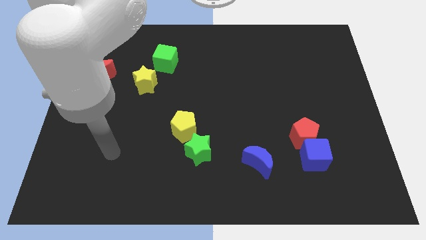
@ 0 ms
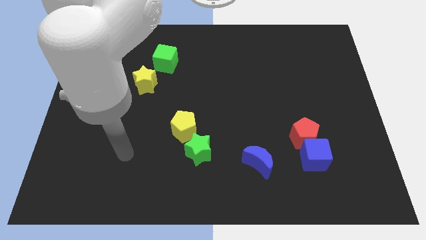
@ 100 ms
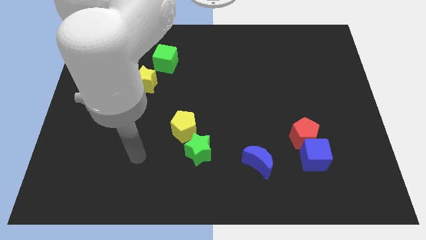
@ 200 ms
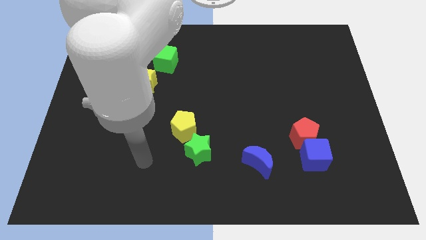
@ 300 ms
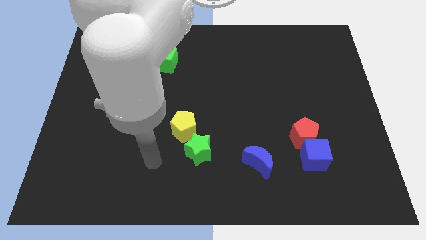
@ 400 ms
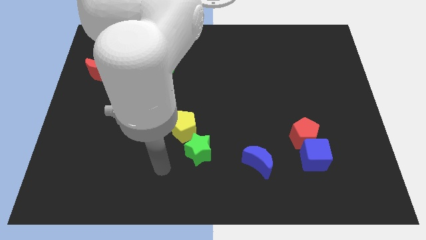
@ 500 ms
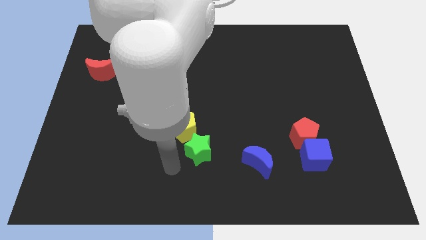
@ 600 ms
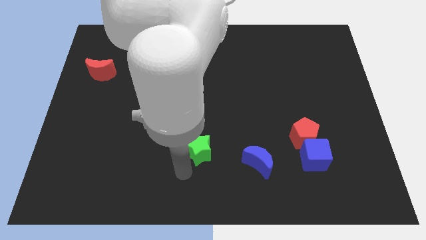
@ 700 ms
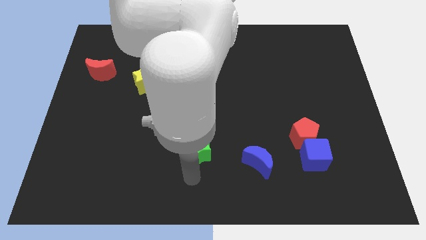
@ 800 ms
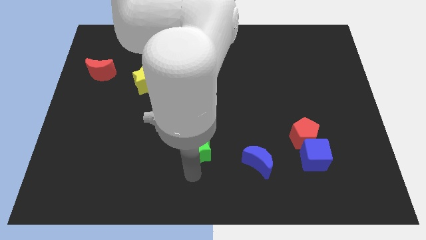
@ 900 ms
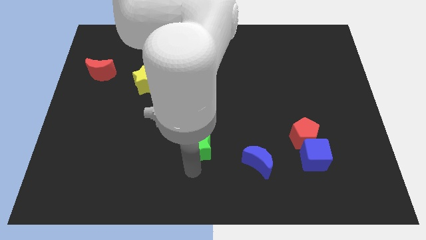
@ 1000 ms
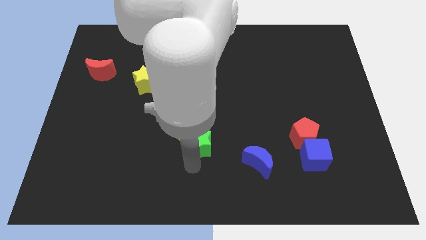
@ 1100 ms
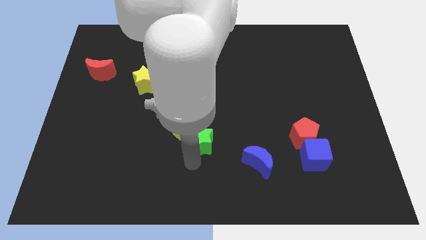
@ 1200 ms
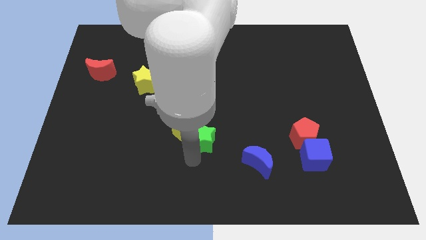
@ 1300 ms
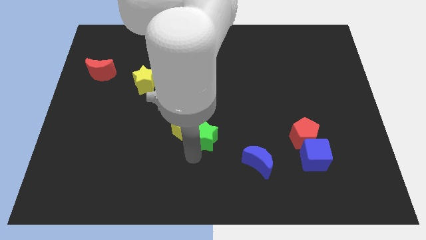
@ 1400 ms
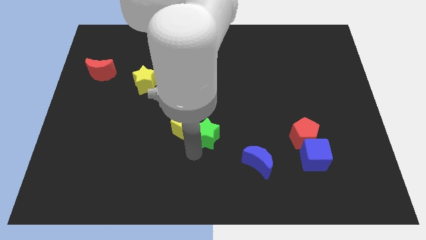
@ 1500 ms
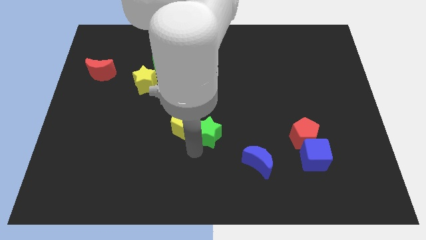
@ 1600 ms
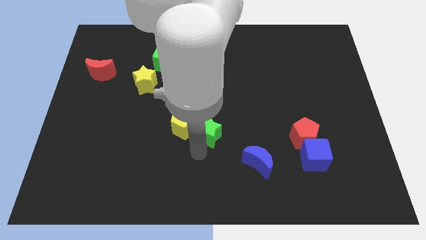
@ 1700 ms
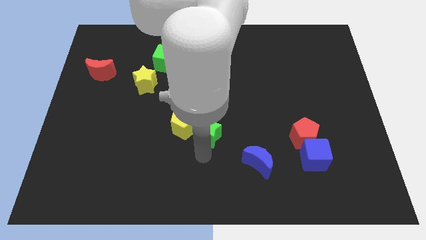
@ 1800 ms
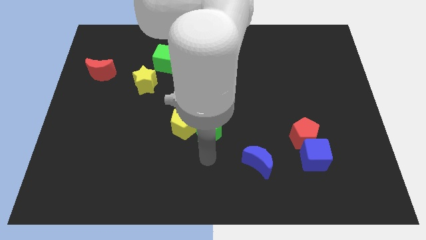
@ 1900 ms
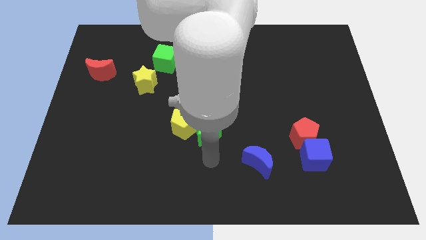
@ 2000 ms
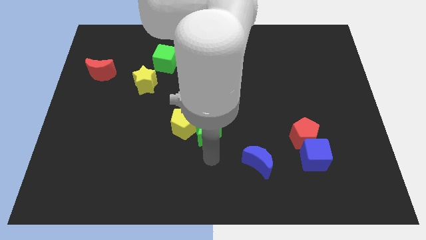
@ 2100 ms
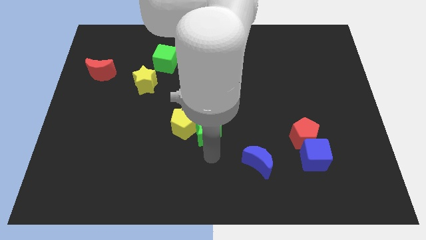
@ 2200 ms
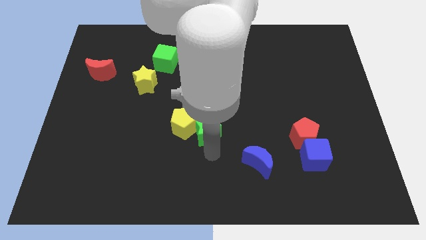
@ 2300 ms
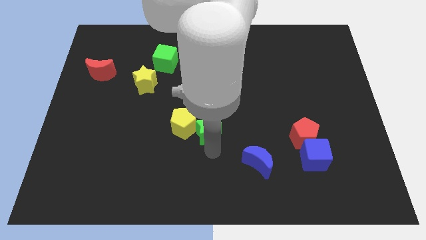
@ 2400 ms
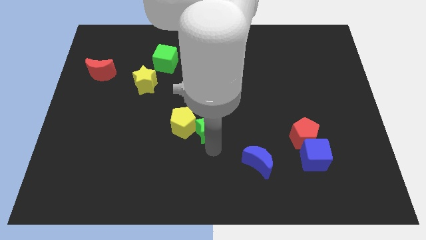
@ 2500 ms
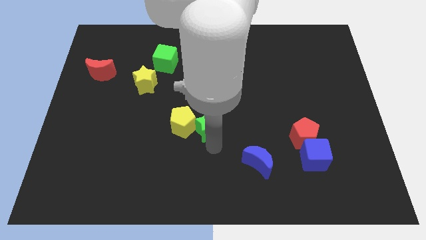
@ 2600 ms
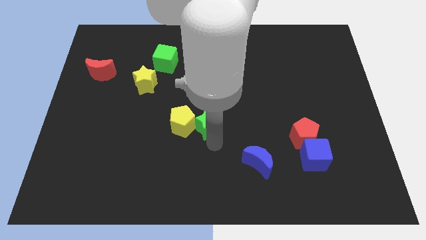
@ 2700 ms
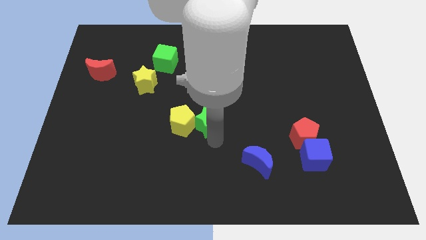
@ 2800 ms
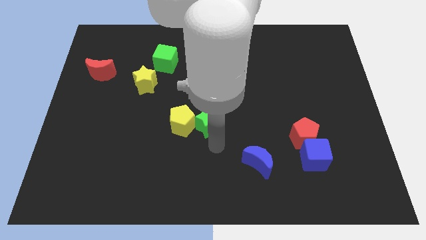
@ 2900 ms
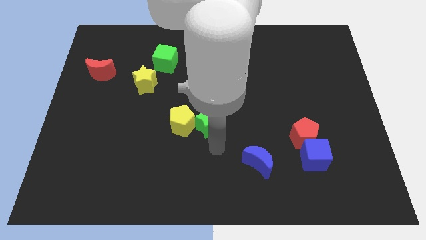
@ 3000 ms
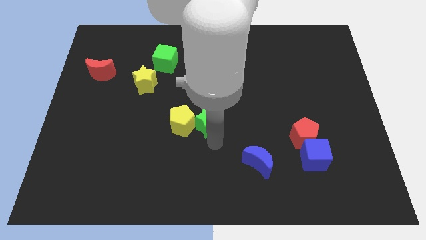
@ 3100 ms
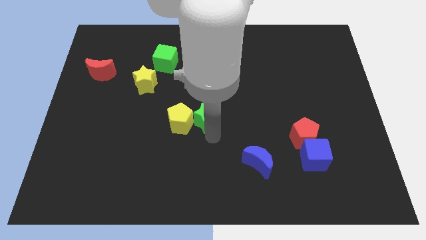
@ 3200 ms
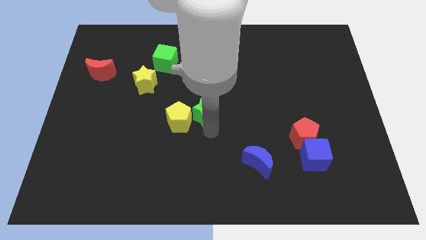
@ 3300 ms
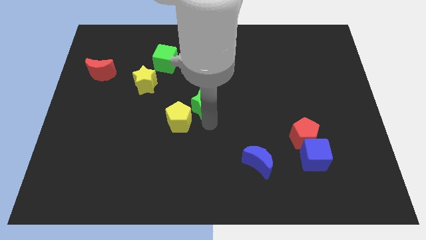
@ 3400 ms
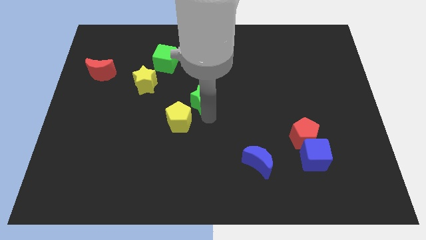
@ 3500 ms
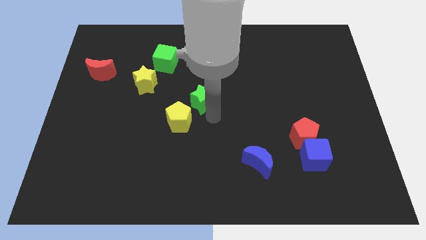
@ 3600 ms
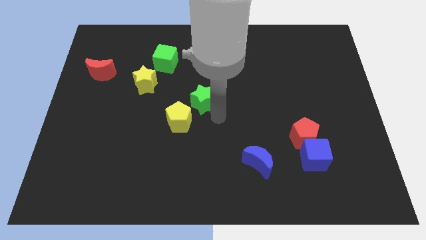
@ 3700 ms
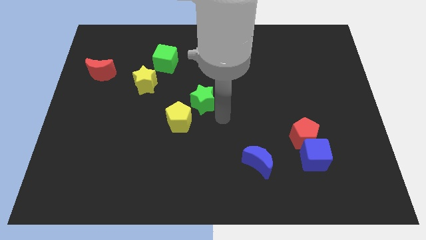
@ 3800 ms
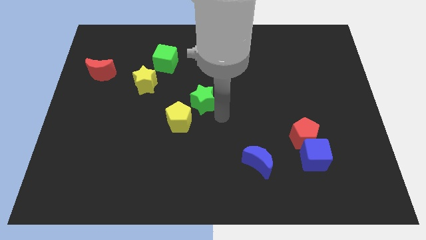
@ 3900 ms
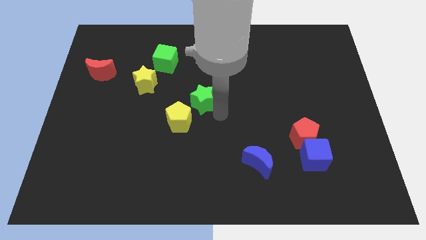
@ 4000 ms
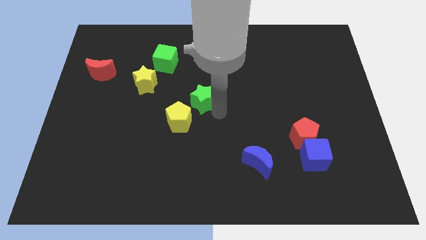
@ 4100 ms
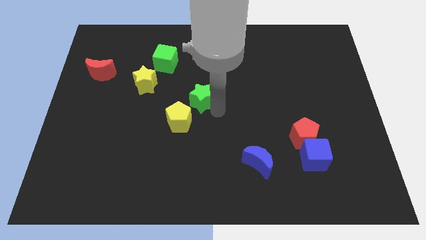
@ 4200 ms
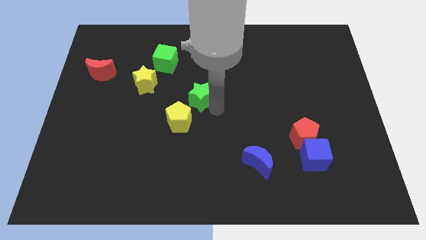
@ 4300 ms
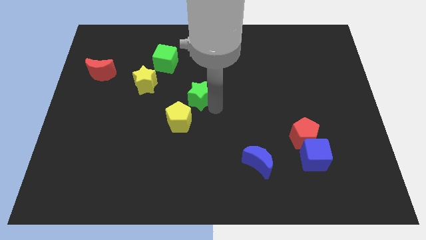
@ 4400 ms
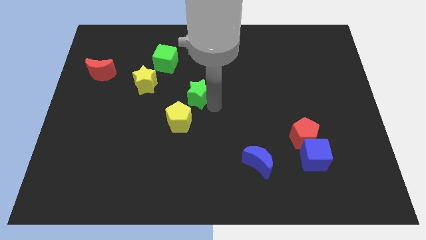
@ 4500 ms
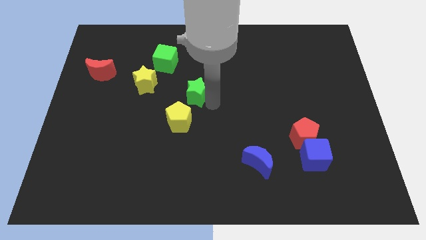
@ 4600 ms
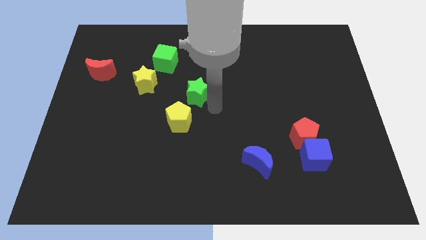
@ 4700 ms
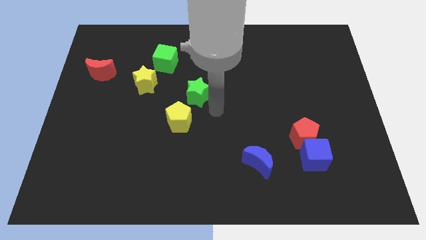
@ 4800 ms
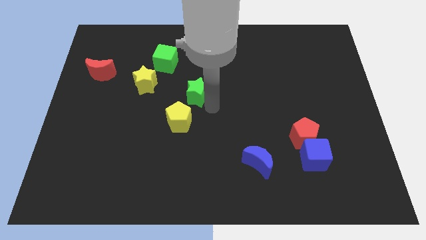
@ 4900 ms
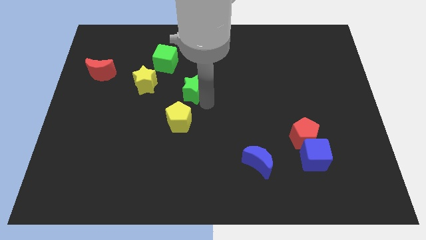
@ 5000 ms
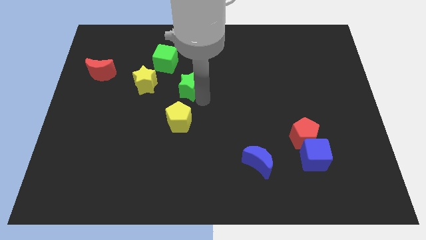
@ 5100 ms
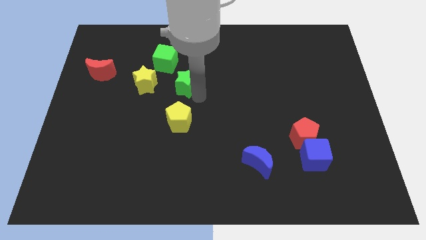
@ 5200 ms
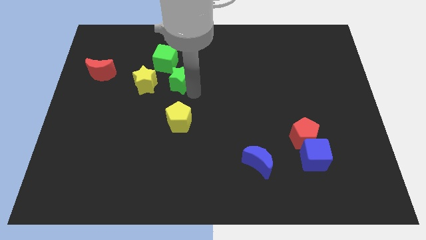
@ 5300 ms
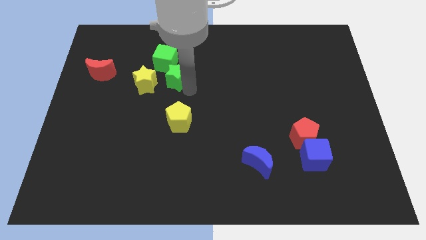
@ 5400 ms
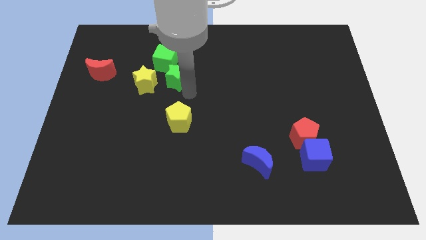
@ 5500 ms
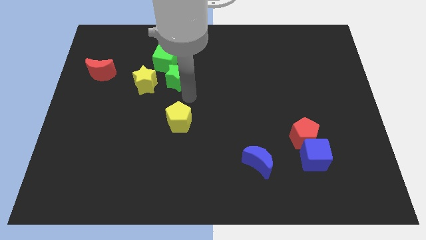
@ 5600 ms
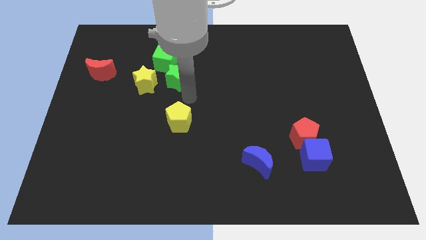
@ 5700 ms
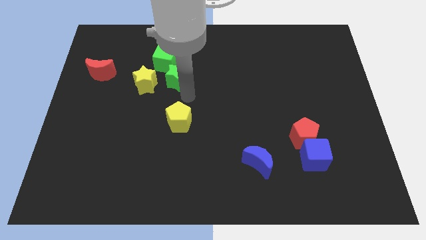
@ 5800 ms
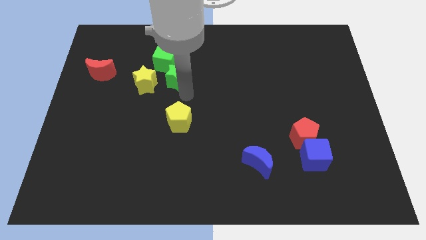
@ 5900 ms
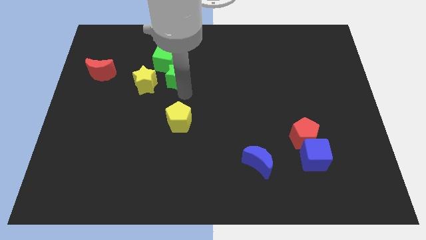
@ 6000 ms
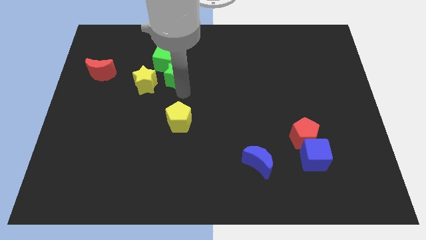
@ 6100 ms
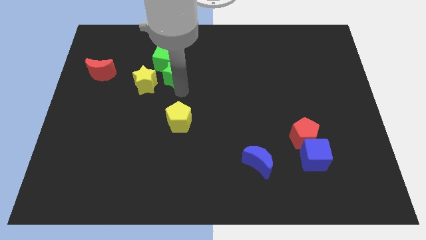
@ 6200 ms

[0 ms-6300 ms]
push the green star to the green cube

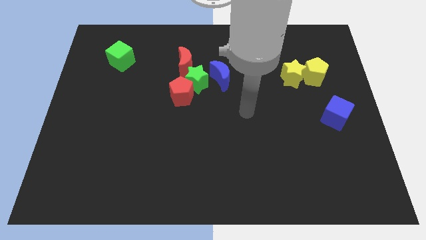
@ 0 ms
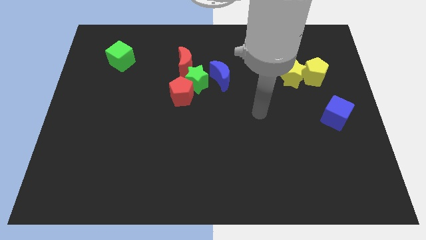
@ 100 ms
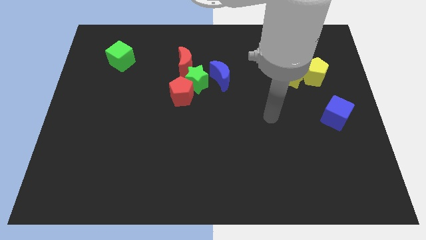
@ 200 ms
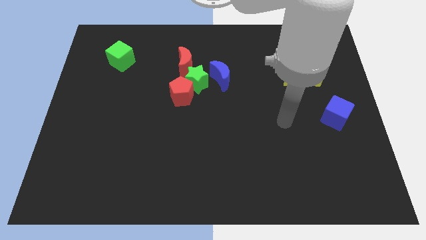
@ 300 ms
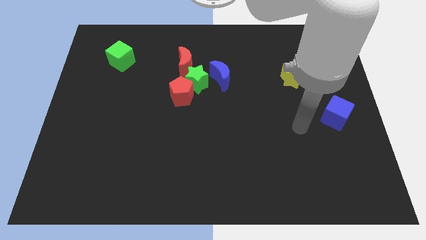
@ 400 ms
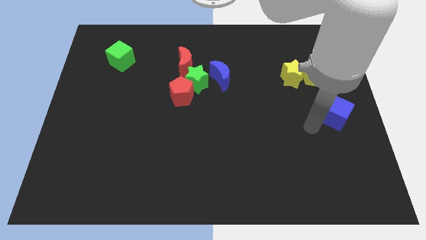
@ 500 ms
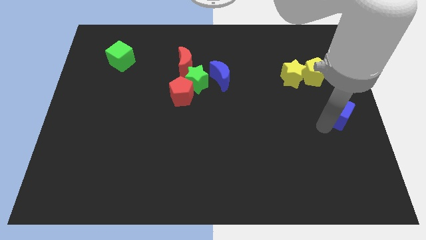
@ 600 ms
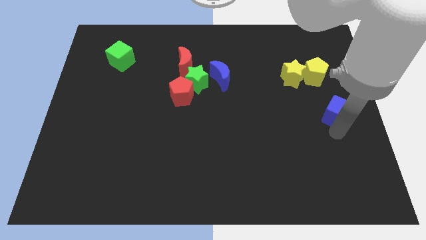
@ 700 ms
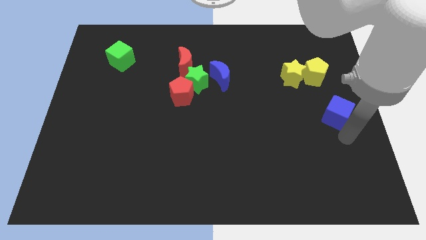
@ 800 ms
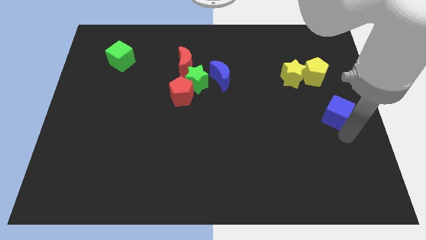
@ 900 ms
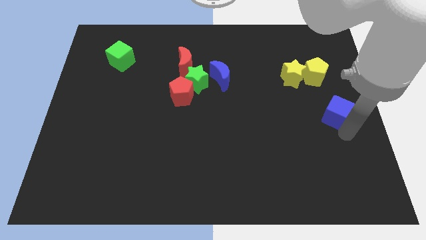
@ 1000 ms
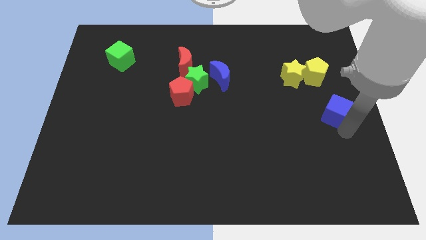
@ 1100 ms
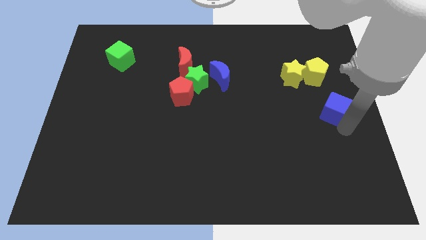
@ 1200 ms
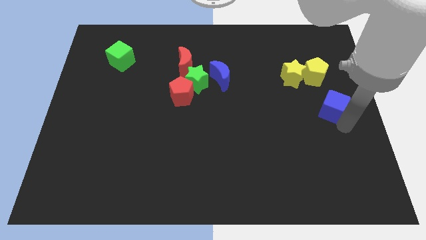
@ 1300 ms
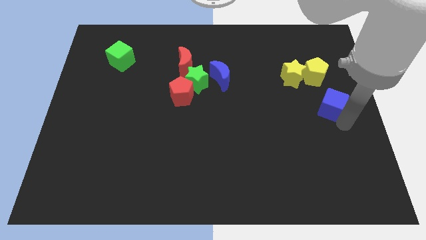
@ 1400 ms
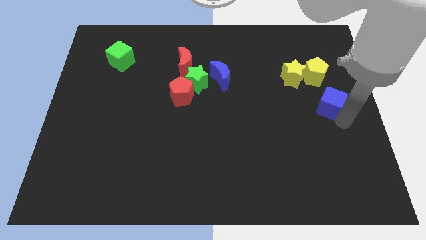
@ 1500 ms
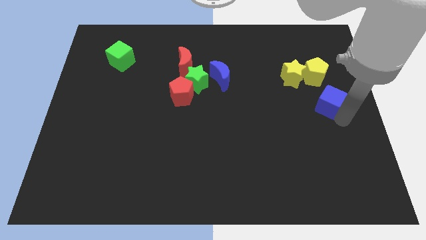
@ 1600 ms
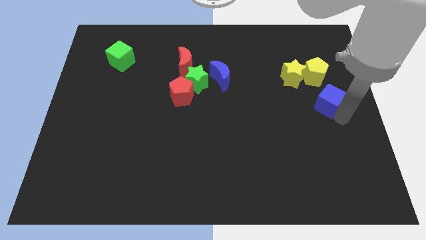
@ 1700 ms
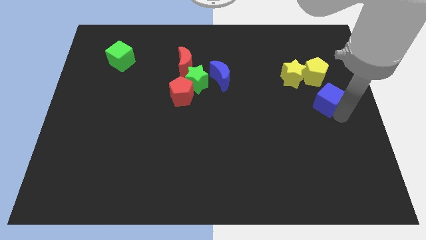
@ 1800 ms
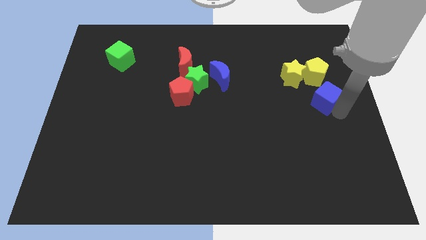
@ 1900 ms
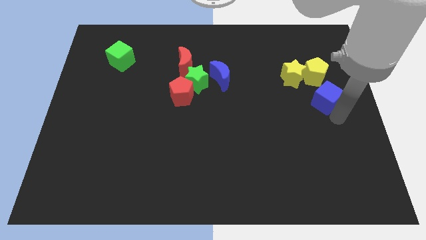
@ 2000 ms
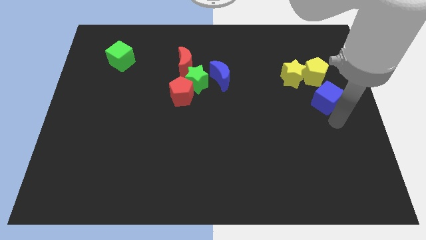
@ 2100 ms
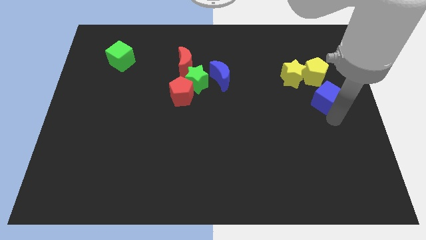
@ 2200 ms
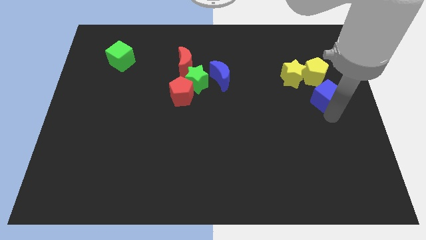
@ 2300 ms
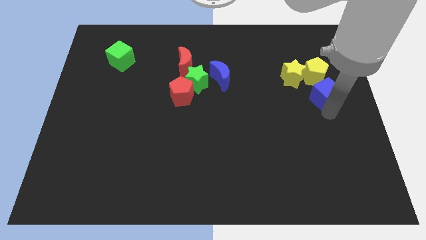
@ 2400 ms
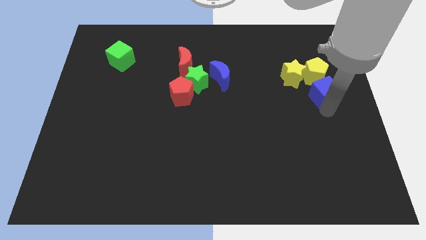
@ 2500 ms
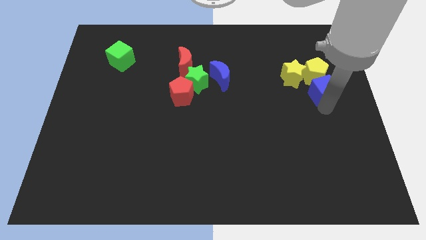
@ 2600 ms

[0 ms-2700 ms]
put the blue cube towards the yellow pentagon
